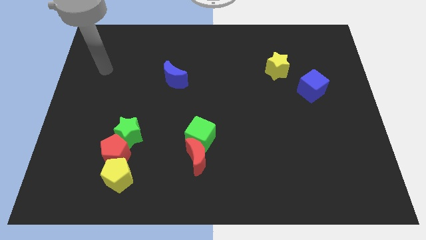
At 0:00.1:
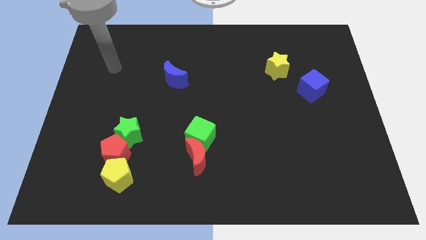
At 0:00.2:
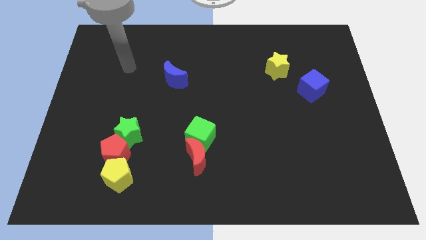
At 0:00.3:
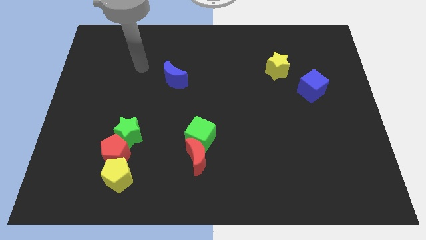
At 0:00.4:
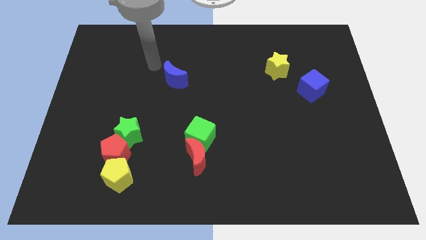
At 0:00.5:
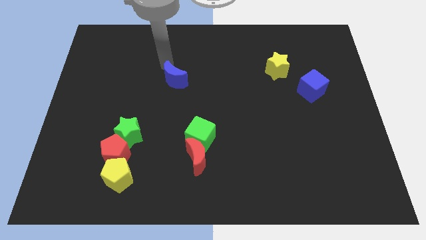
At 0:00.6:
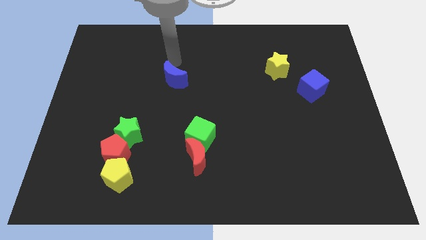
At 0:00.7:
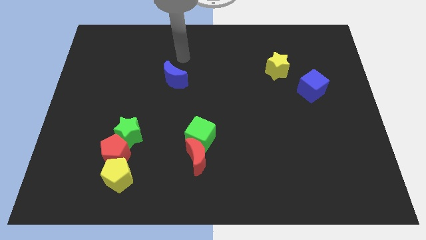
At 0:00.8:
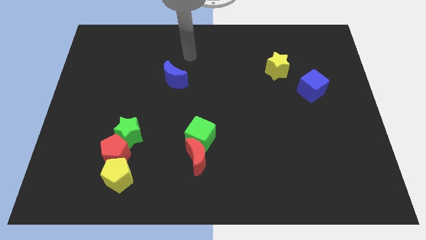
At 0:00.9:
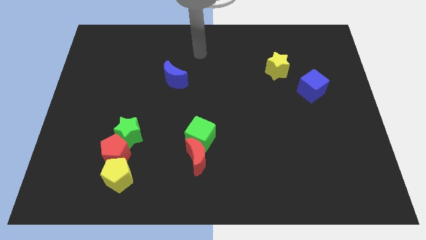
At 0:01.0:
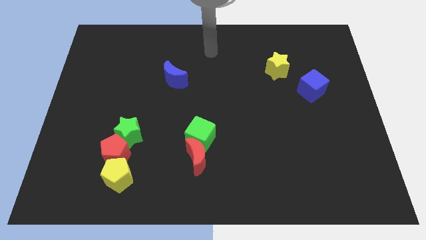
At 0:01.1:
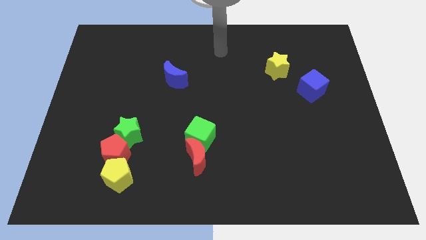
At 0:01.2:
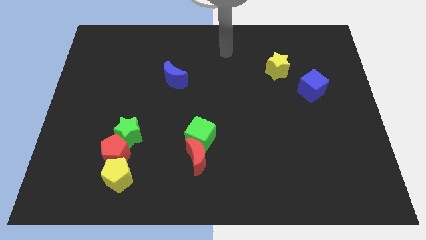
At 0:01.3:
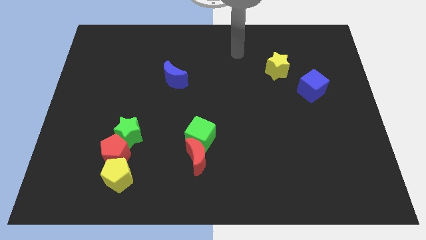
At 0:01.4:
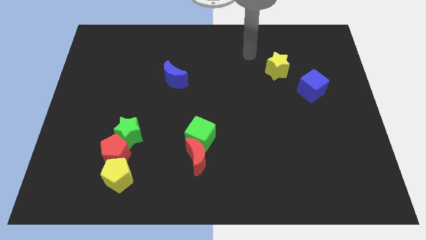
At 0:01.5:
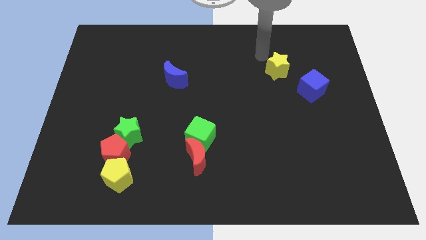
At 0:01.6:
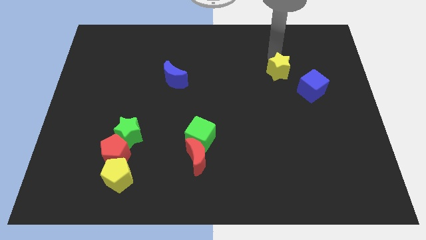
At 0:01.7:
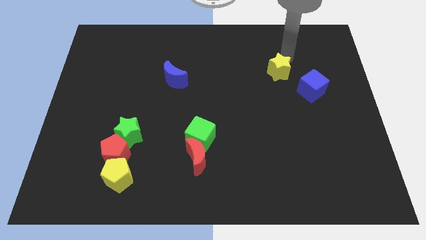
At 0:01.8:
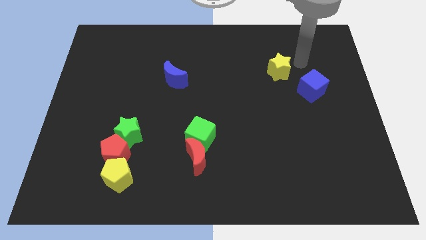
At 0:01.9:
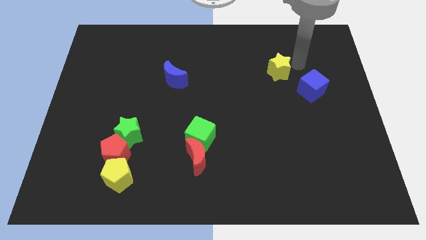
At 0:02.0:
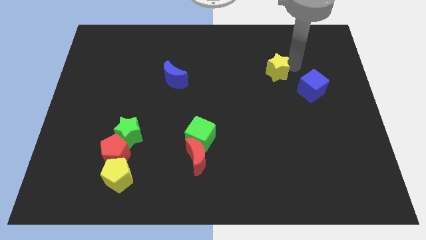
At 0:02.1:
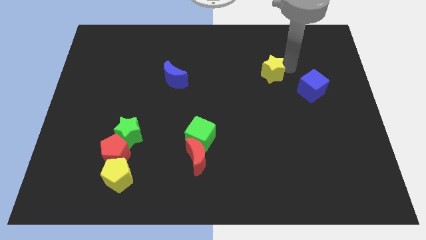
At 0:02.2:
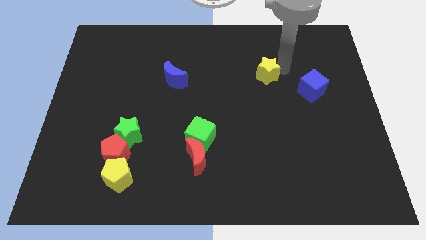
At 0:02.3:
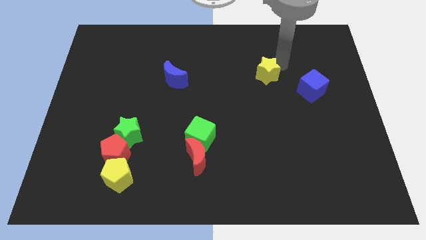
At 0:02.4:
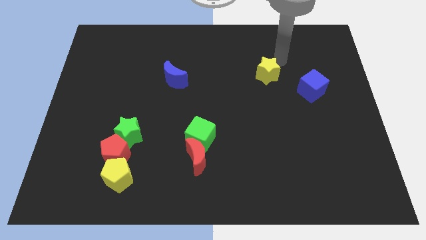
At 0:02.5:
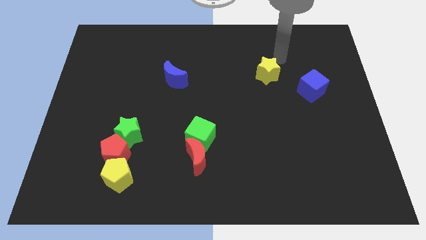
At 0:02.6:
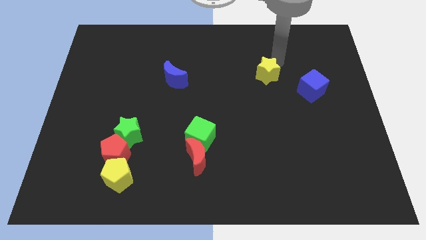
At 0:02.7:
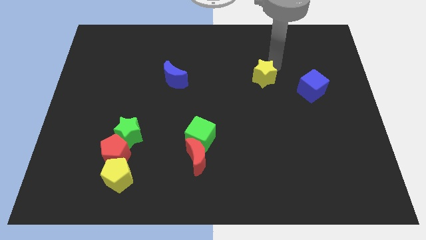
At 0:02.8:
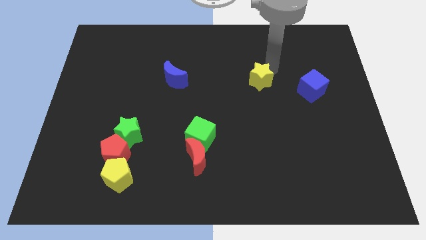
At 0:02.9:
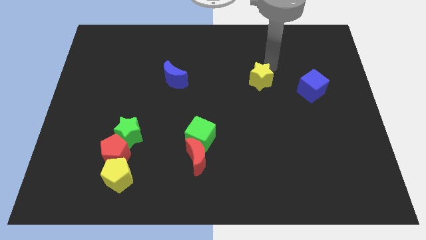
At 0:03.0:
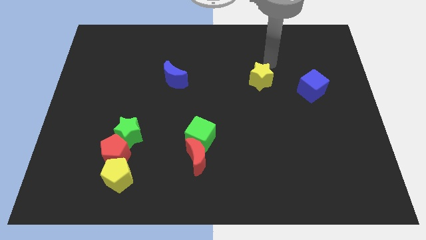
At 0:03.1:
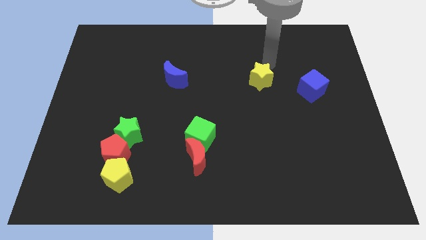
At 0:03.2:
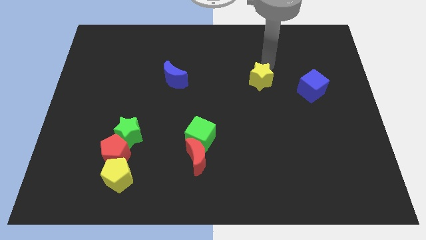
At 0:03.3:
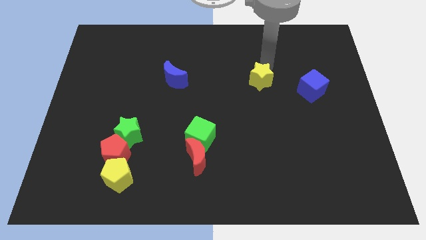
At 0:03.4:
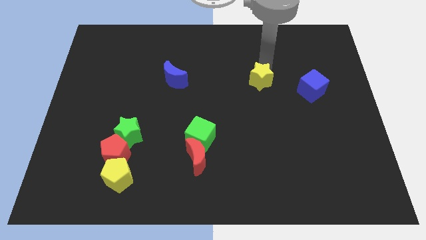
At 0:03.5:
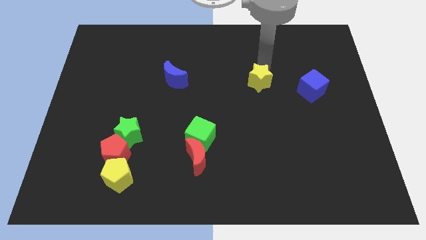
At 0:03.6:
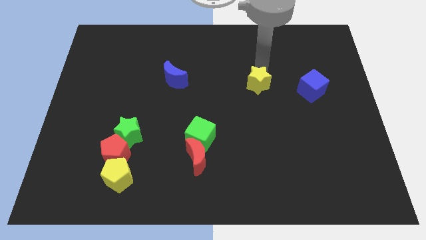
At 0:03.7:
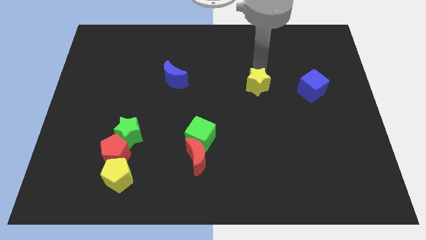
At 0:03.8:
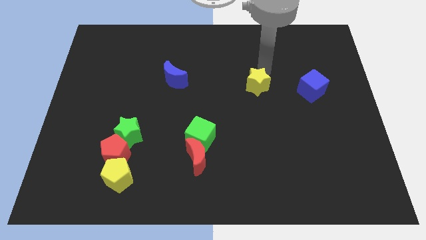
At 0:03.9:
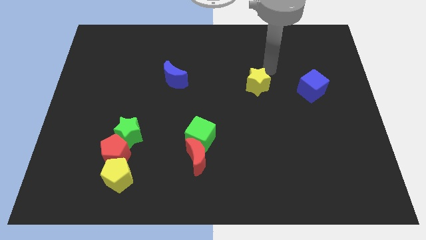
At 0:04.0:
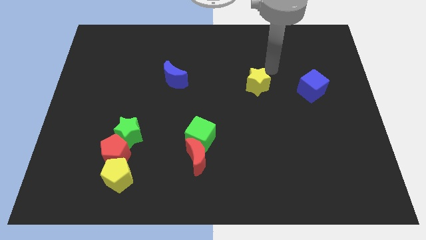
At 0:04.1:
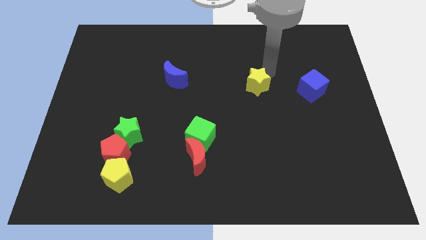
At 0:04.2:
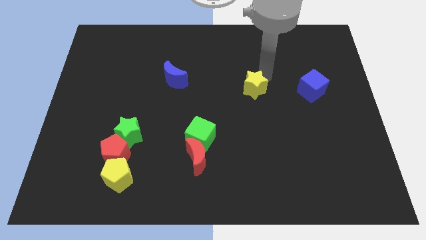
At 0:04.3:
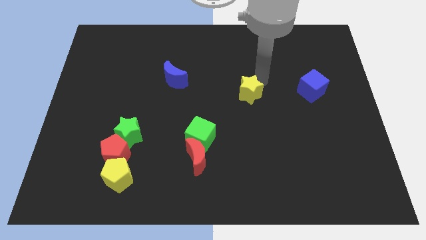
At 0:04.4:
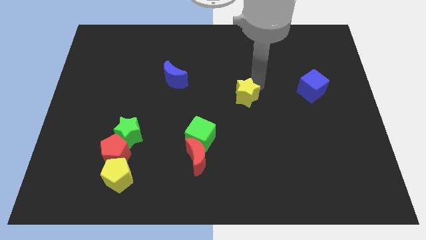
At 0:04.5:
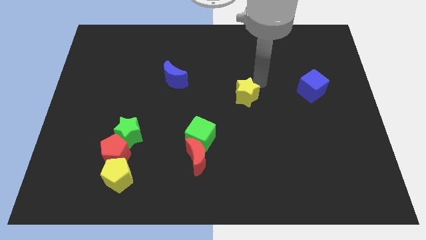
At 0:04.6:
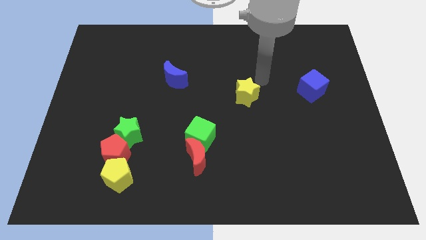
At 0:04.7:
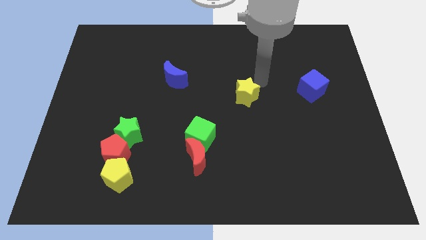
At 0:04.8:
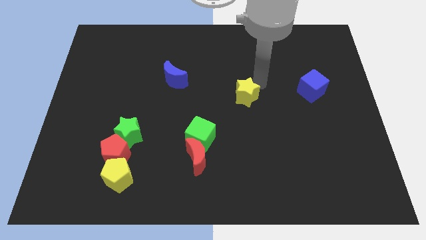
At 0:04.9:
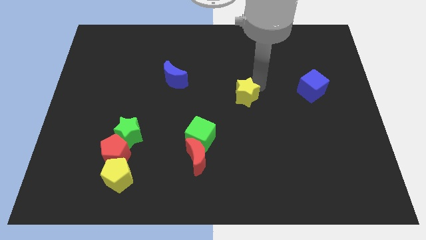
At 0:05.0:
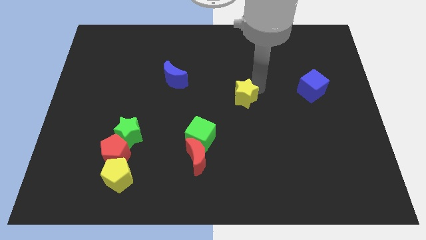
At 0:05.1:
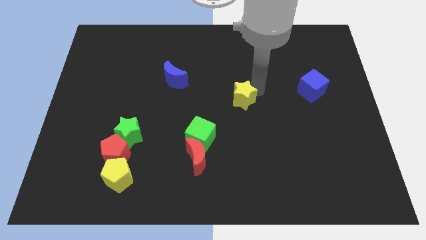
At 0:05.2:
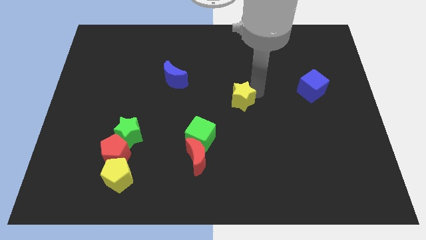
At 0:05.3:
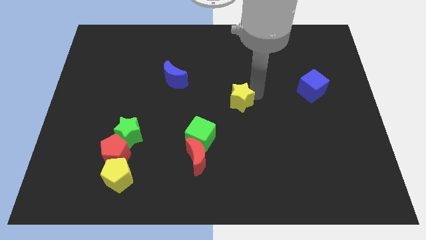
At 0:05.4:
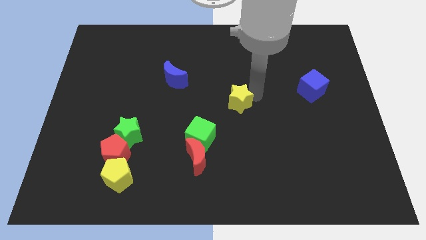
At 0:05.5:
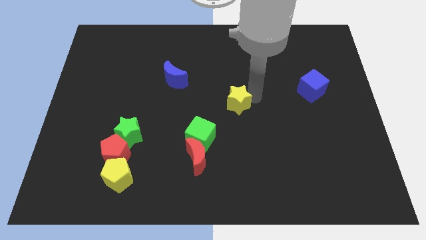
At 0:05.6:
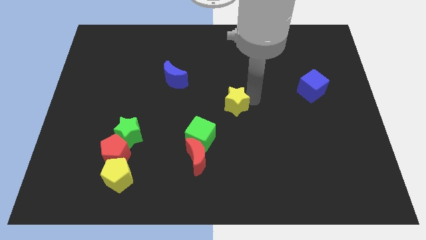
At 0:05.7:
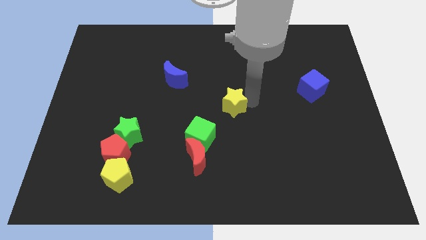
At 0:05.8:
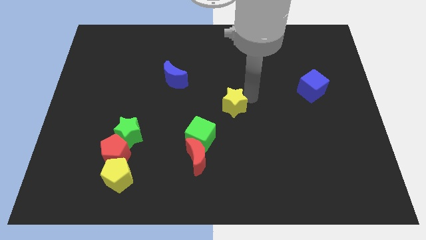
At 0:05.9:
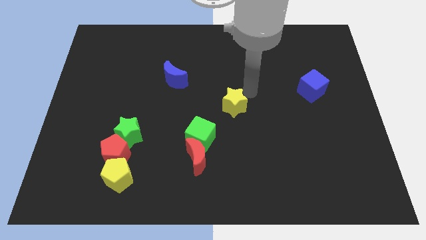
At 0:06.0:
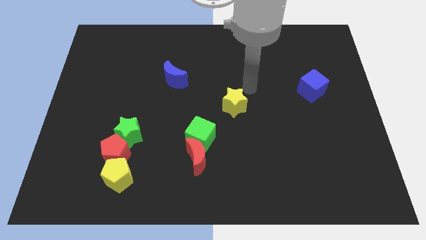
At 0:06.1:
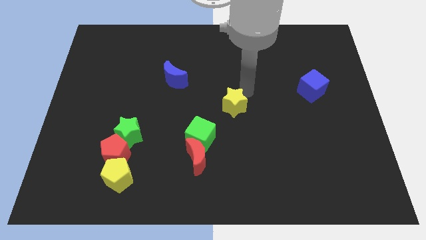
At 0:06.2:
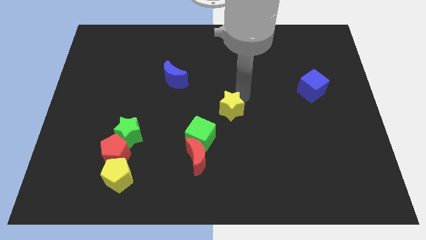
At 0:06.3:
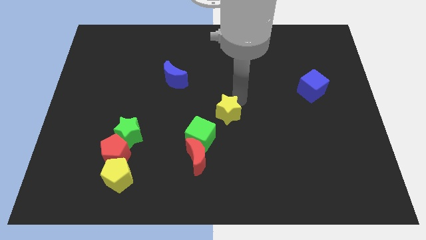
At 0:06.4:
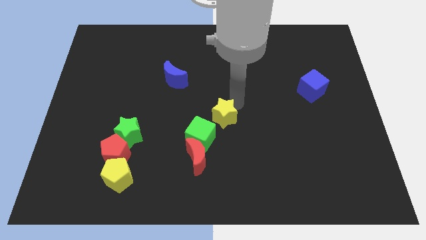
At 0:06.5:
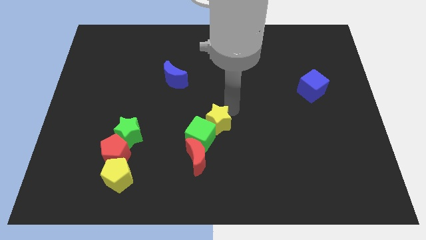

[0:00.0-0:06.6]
move the yellow star to the green cube
